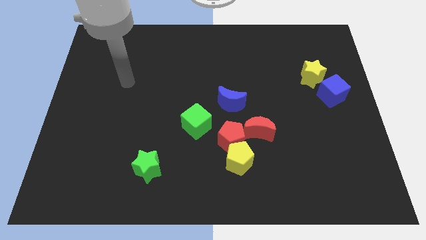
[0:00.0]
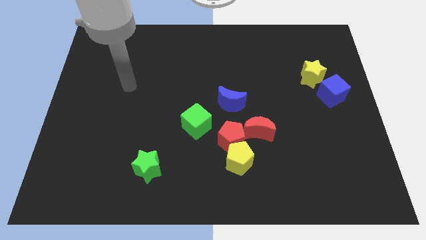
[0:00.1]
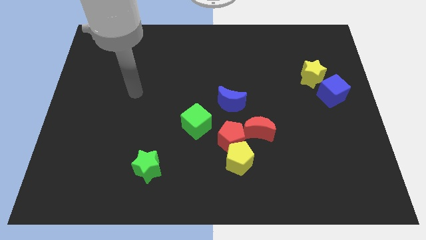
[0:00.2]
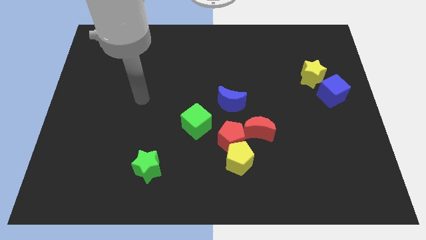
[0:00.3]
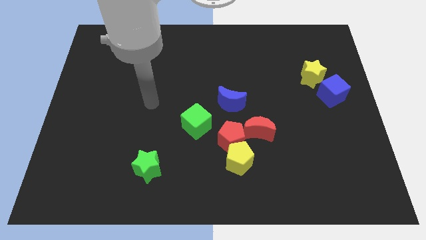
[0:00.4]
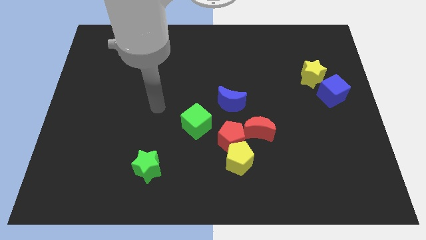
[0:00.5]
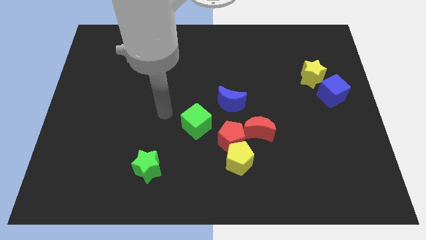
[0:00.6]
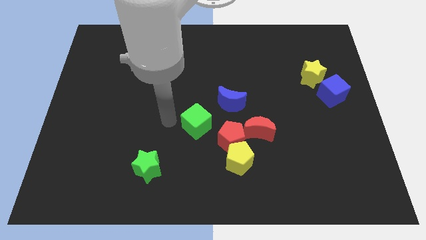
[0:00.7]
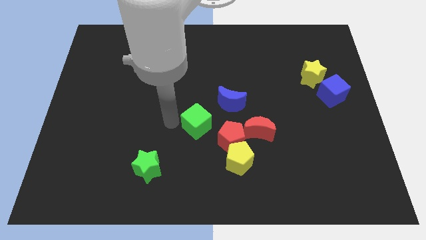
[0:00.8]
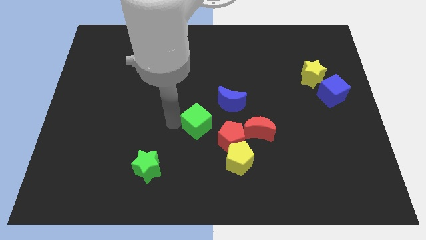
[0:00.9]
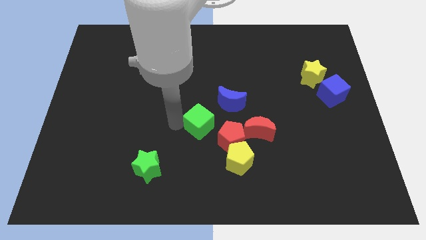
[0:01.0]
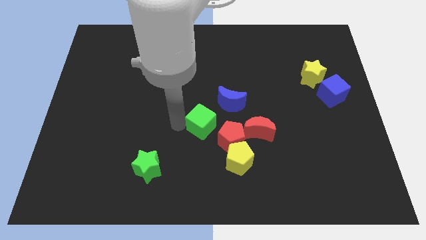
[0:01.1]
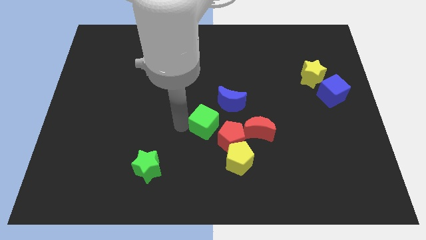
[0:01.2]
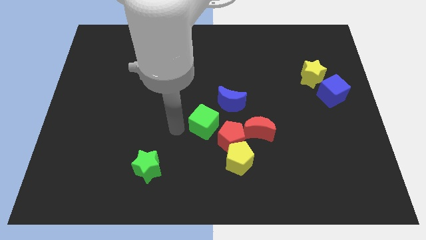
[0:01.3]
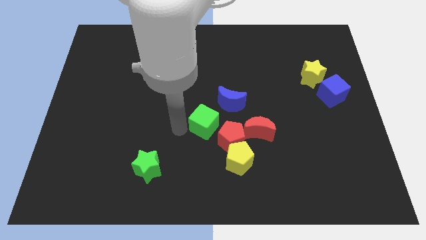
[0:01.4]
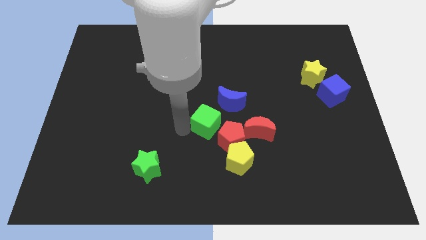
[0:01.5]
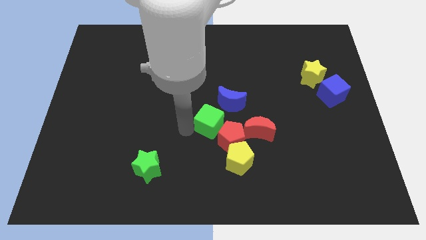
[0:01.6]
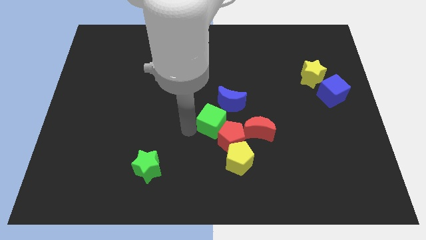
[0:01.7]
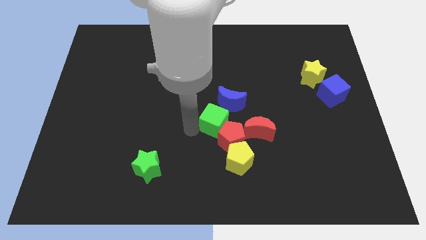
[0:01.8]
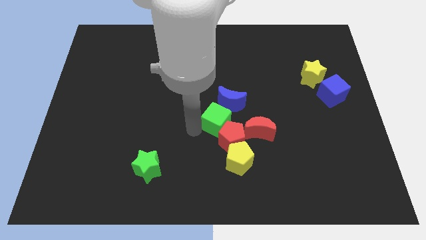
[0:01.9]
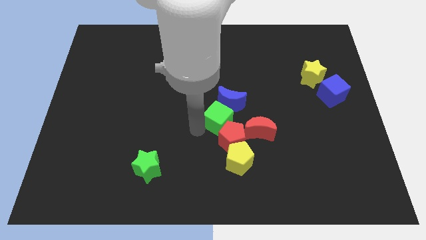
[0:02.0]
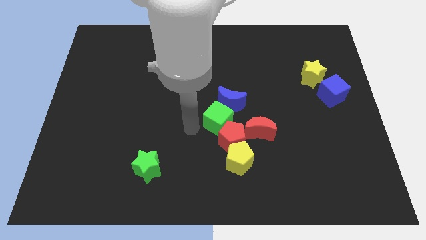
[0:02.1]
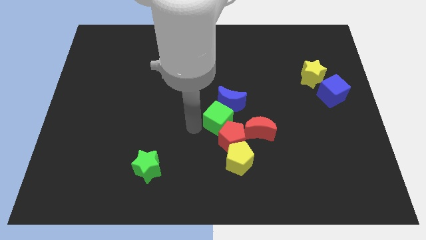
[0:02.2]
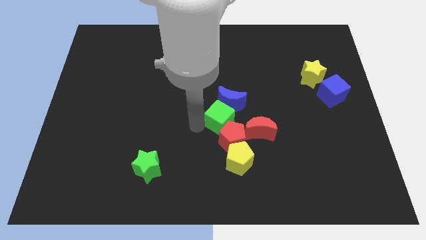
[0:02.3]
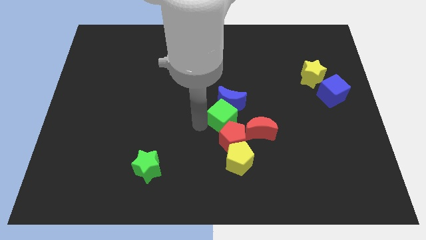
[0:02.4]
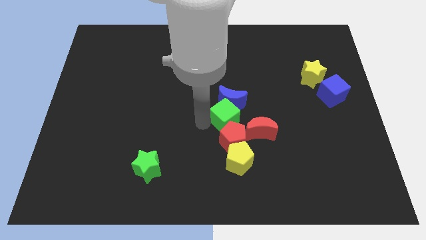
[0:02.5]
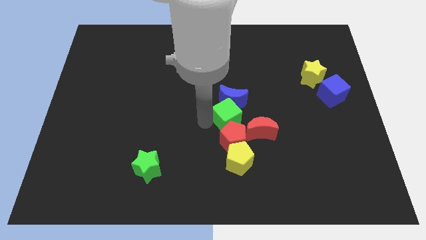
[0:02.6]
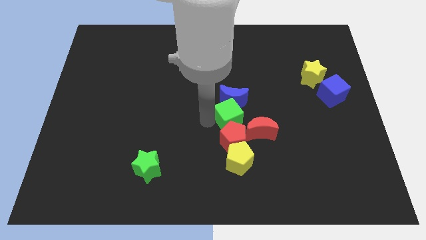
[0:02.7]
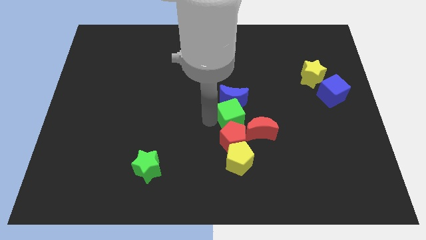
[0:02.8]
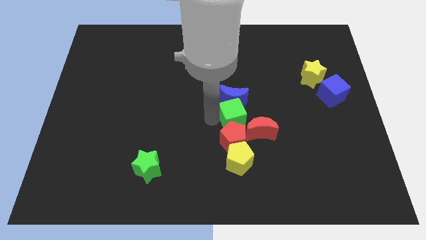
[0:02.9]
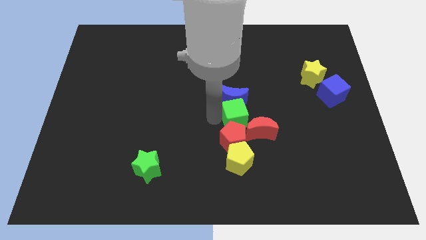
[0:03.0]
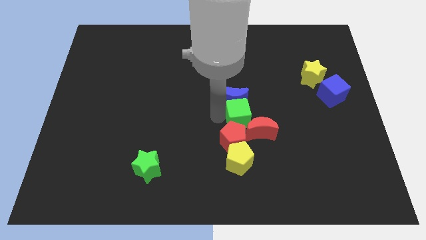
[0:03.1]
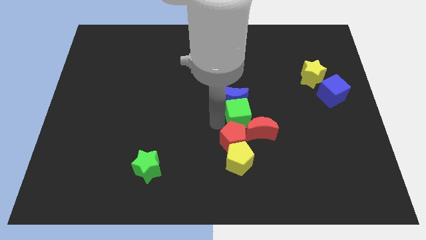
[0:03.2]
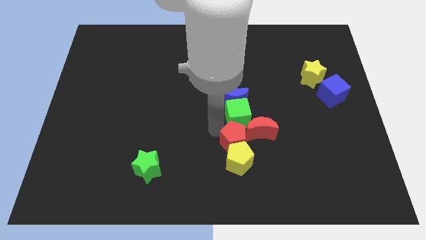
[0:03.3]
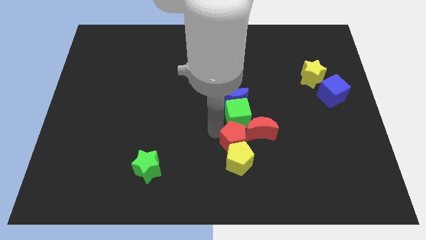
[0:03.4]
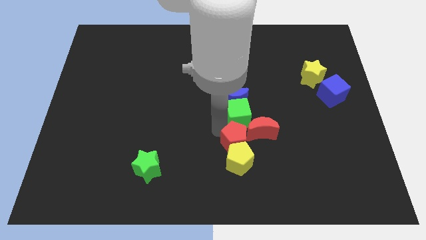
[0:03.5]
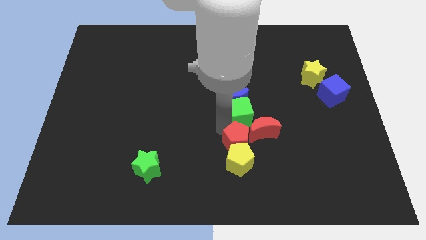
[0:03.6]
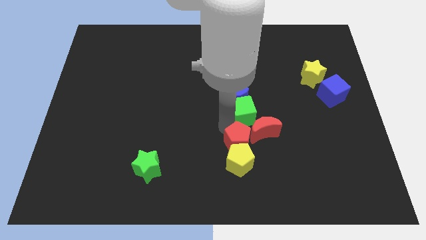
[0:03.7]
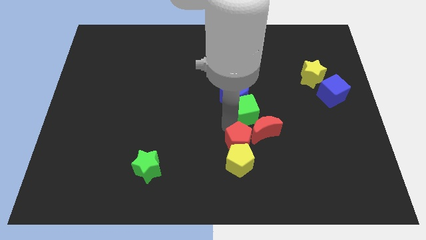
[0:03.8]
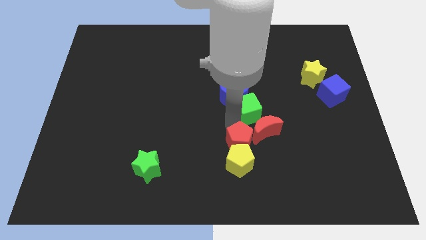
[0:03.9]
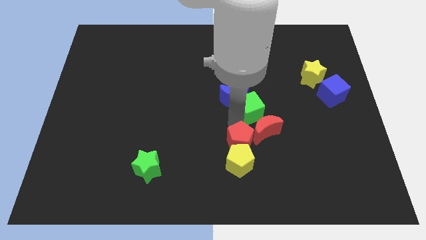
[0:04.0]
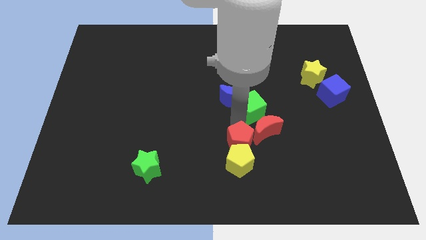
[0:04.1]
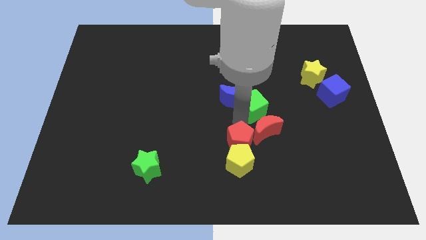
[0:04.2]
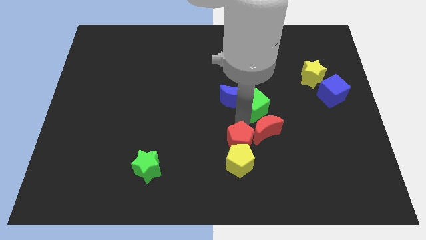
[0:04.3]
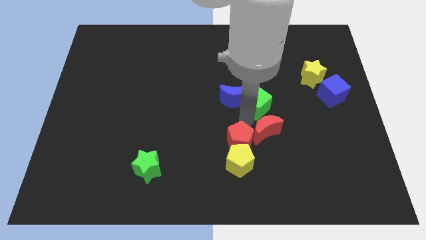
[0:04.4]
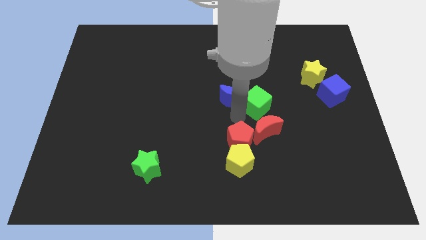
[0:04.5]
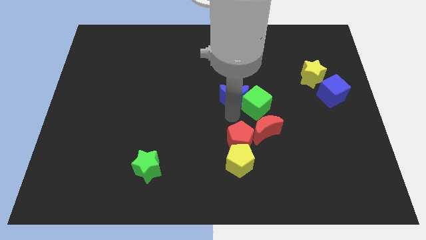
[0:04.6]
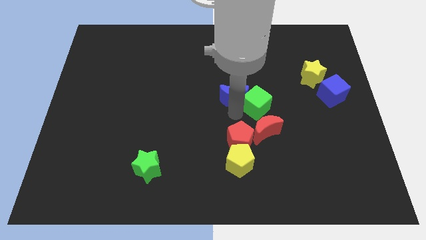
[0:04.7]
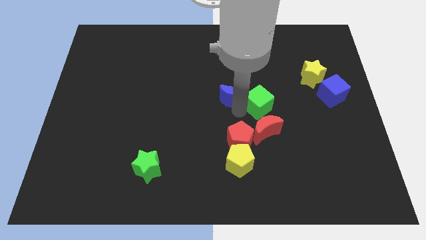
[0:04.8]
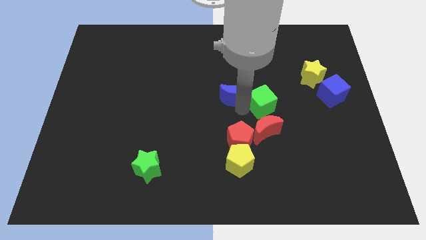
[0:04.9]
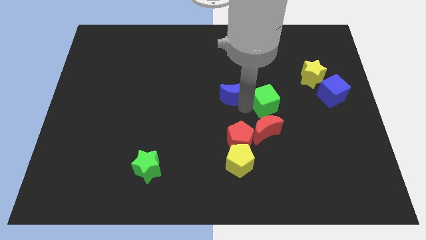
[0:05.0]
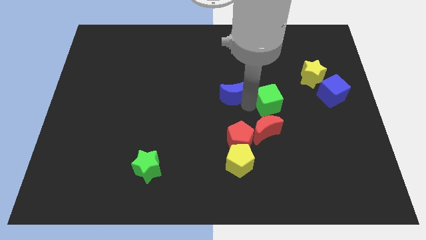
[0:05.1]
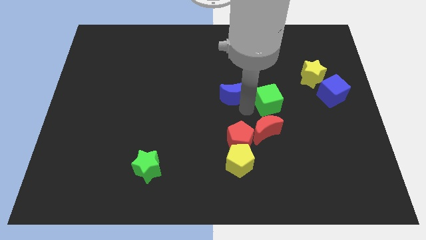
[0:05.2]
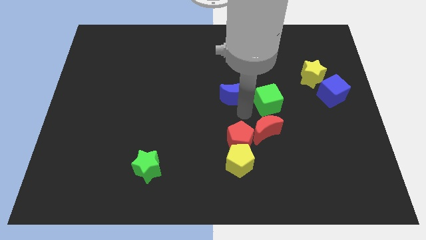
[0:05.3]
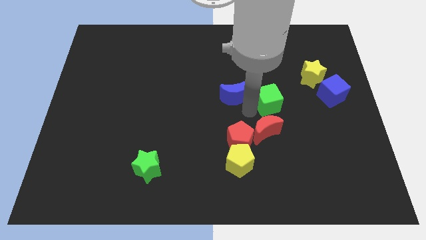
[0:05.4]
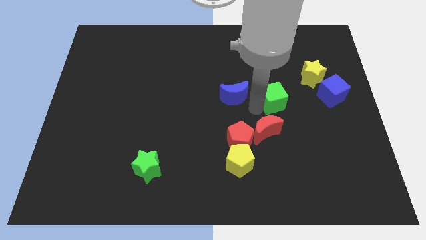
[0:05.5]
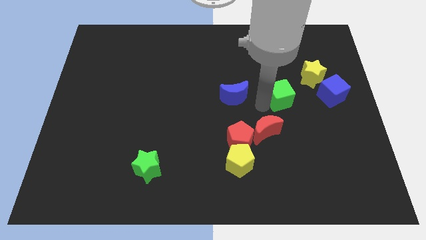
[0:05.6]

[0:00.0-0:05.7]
move the green cube diagonally down and to the left of the yellow star

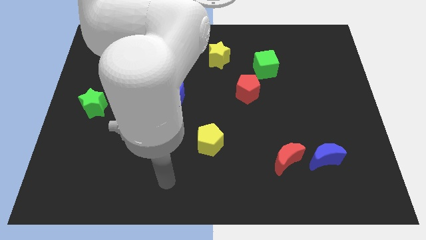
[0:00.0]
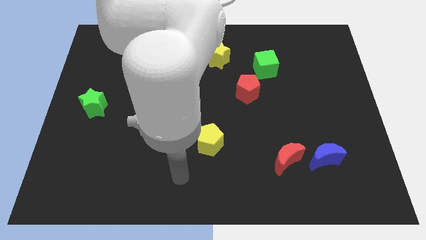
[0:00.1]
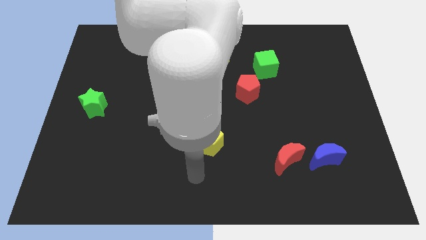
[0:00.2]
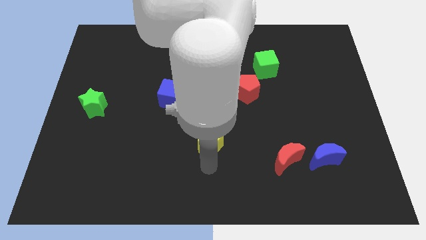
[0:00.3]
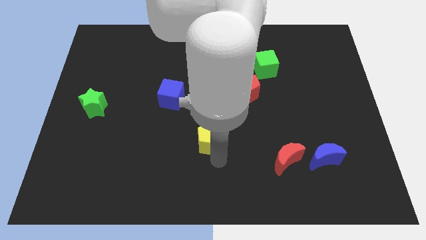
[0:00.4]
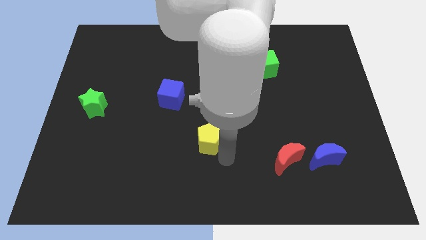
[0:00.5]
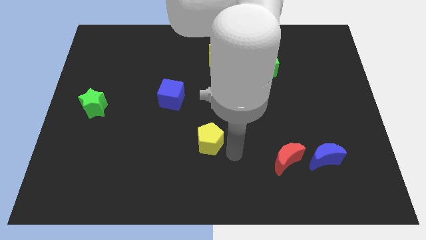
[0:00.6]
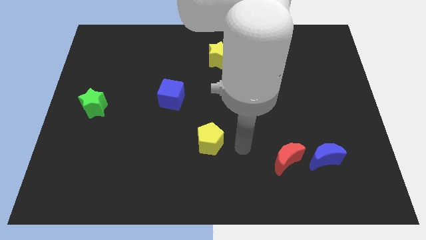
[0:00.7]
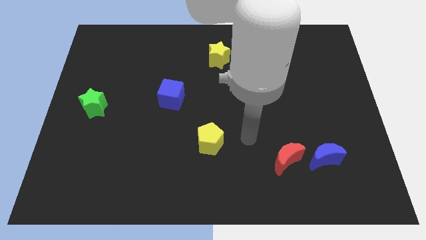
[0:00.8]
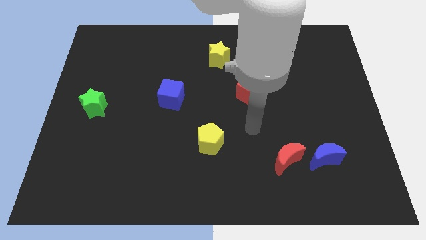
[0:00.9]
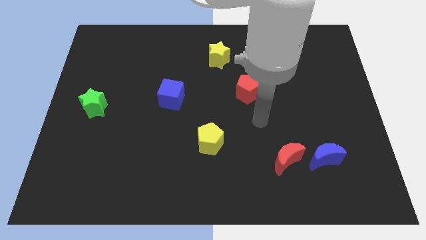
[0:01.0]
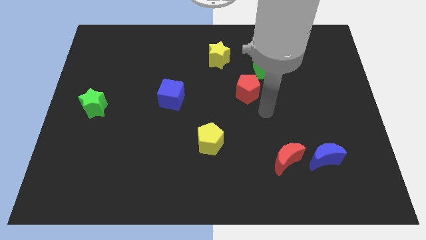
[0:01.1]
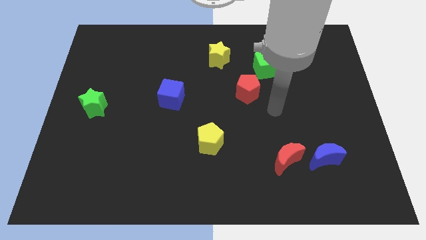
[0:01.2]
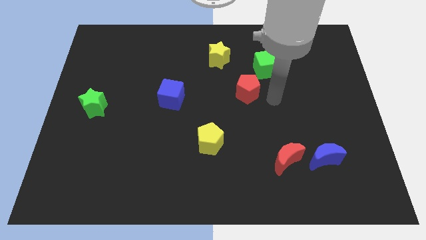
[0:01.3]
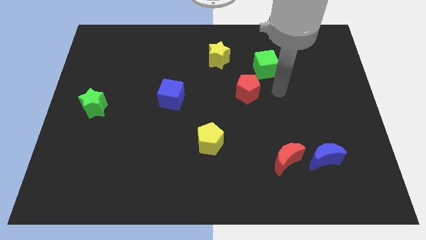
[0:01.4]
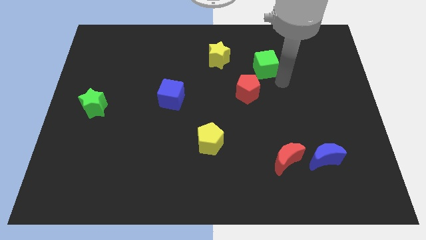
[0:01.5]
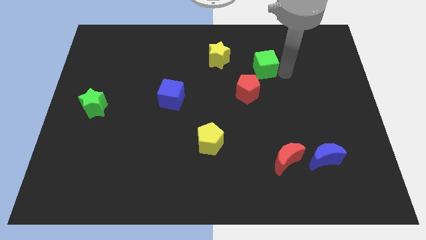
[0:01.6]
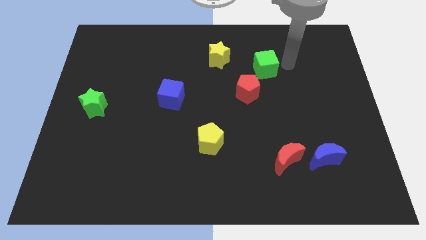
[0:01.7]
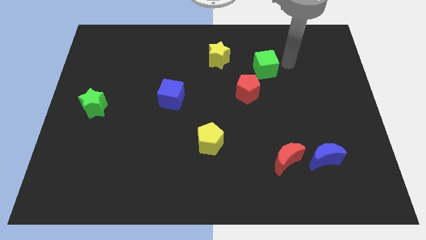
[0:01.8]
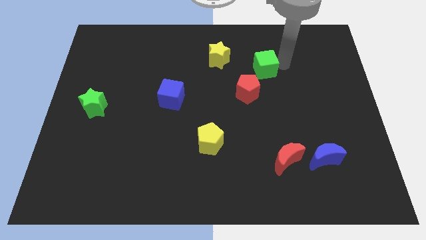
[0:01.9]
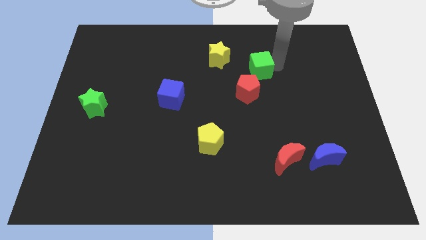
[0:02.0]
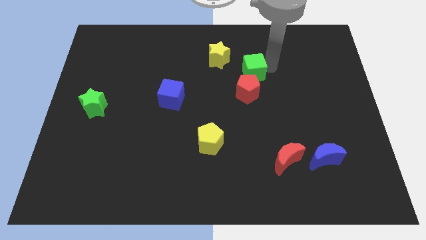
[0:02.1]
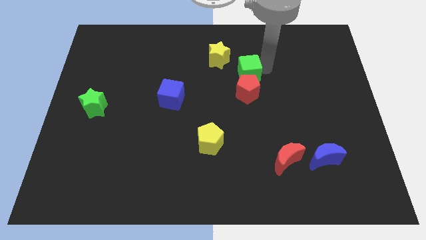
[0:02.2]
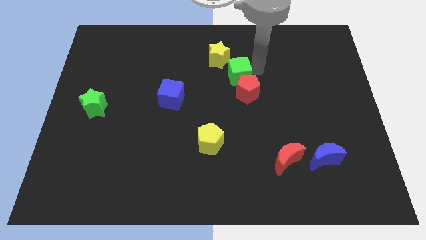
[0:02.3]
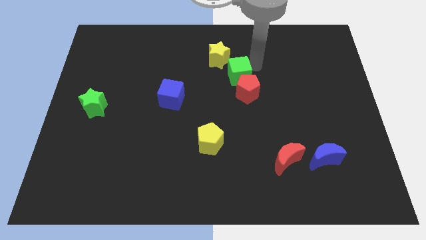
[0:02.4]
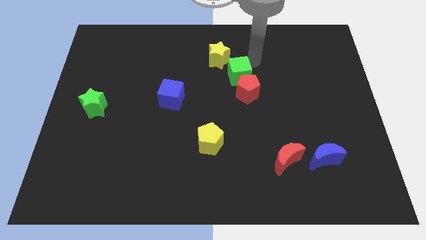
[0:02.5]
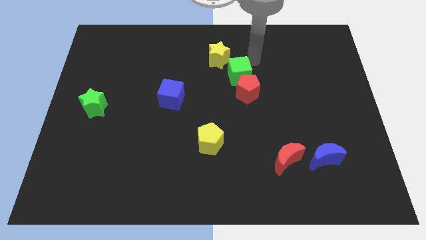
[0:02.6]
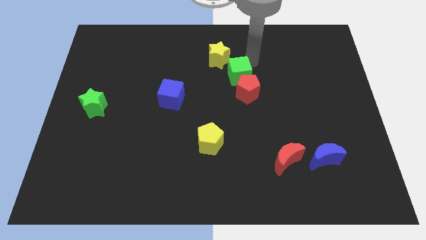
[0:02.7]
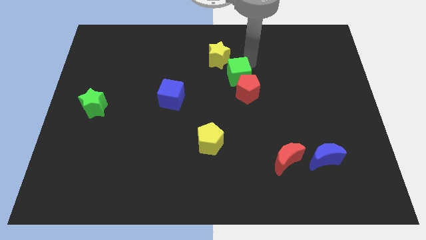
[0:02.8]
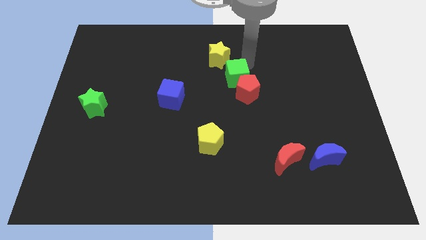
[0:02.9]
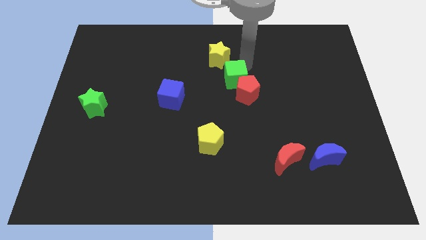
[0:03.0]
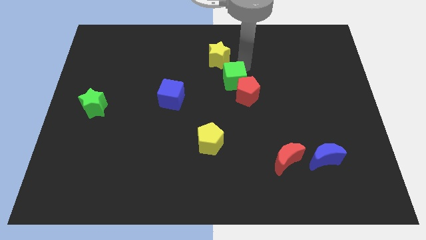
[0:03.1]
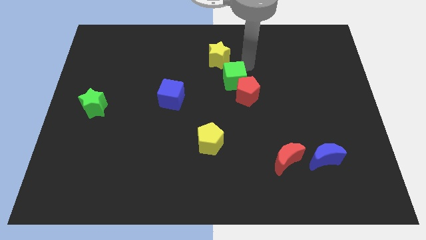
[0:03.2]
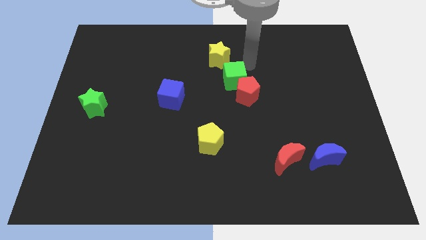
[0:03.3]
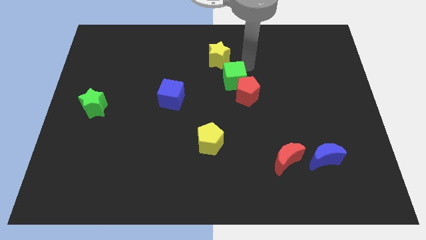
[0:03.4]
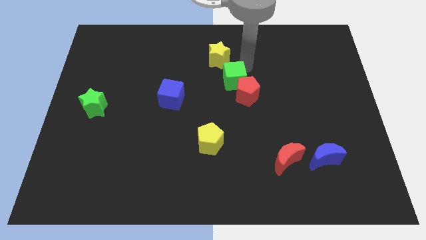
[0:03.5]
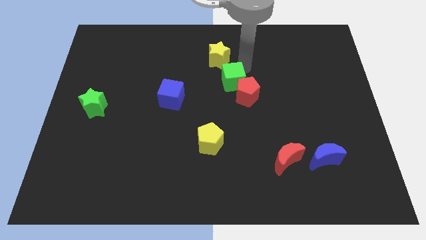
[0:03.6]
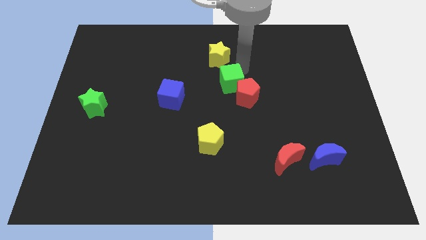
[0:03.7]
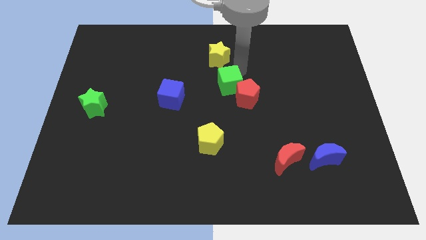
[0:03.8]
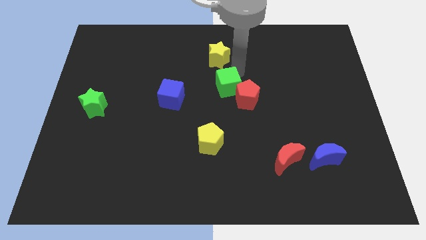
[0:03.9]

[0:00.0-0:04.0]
move the green cube right of the blue cube
